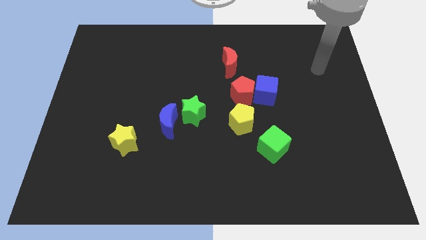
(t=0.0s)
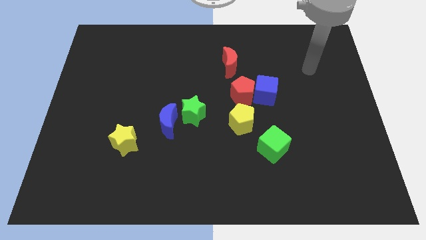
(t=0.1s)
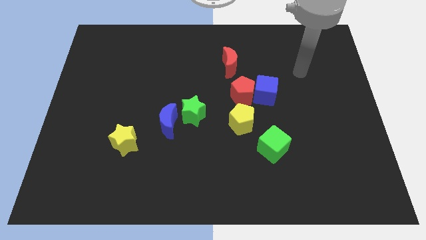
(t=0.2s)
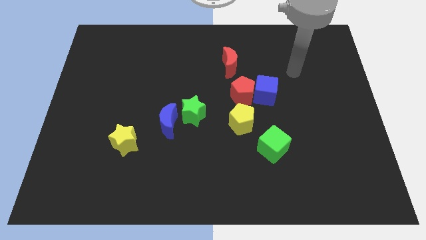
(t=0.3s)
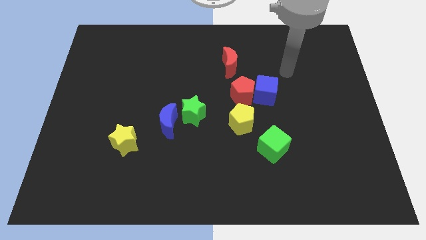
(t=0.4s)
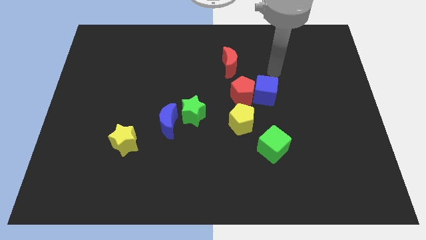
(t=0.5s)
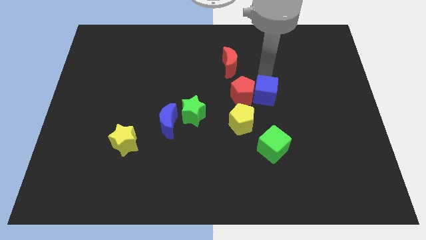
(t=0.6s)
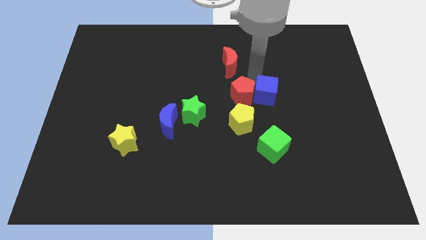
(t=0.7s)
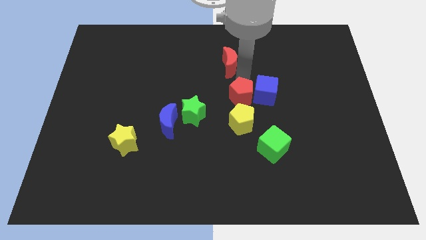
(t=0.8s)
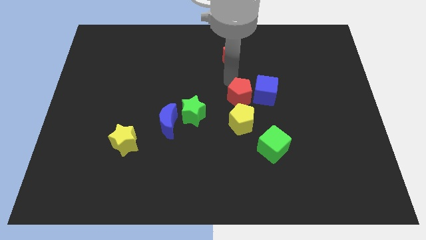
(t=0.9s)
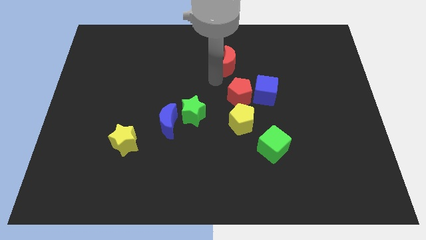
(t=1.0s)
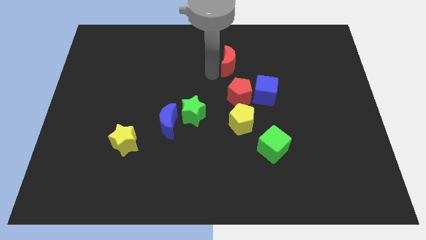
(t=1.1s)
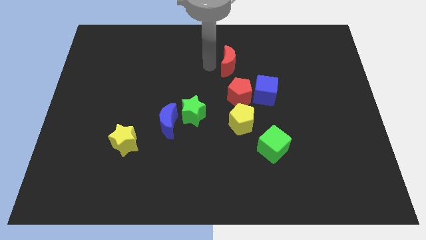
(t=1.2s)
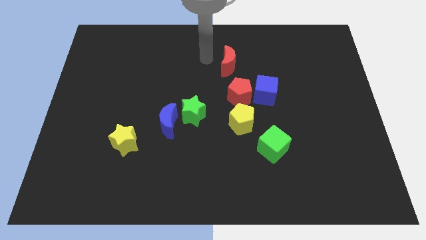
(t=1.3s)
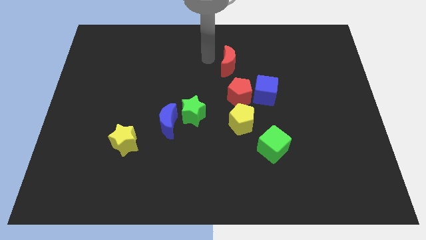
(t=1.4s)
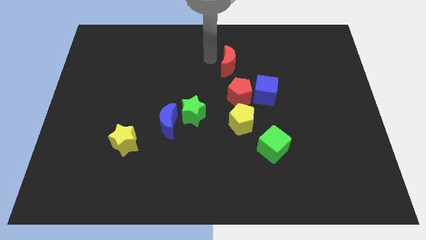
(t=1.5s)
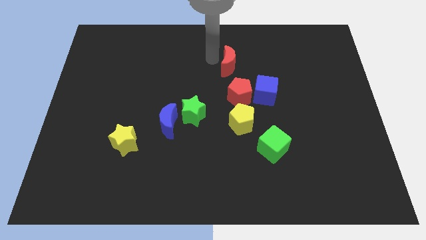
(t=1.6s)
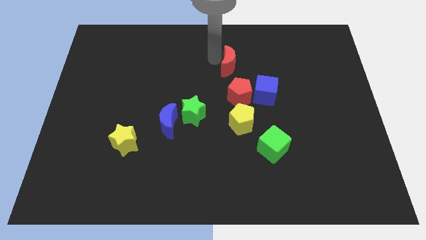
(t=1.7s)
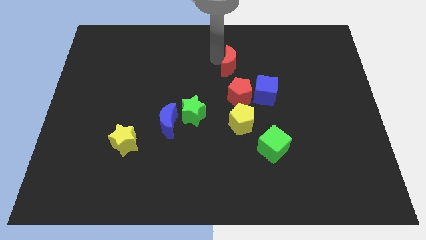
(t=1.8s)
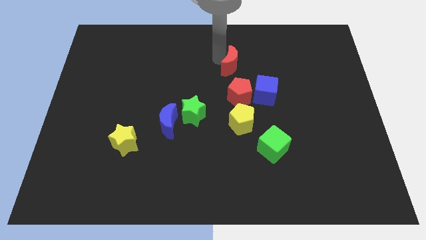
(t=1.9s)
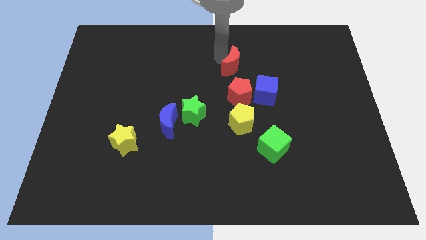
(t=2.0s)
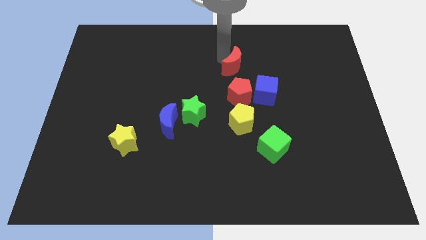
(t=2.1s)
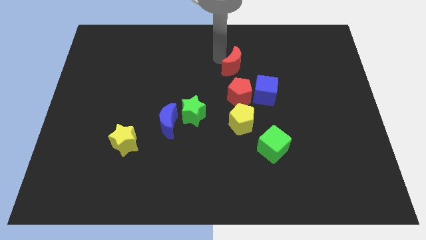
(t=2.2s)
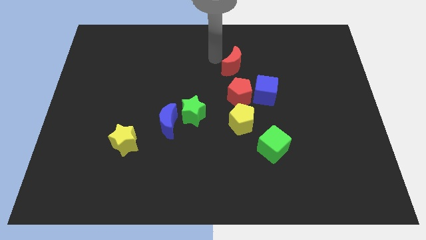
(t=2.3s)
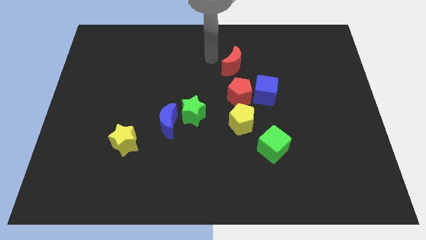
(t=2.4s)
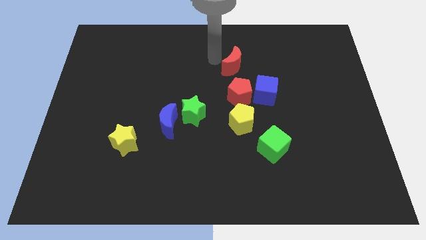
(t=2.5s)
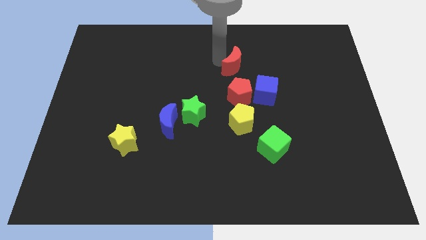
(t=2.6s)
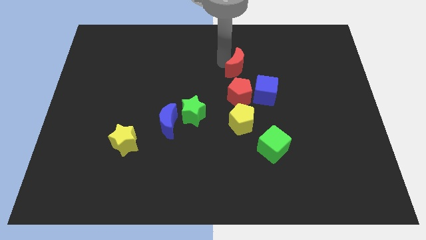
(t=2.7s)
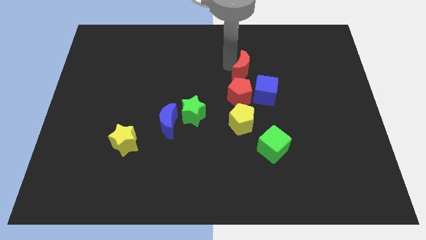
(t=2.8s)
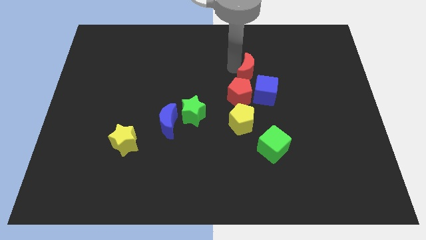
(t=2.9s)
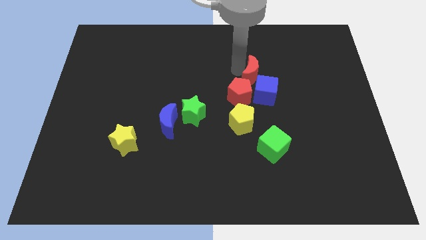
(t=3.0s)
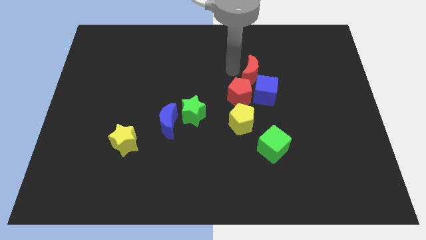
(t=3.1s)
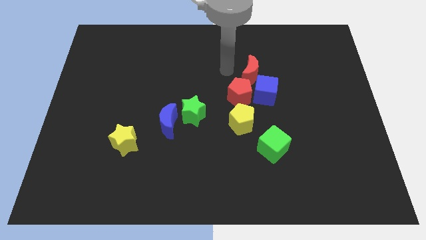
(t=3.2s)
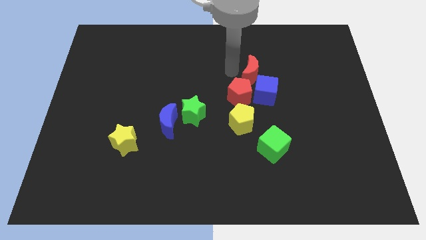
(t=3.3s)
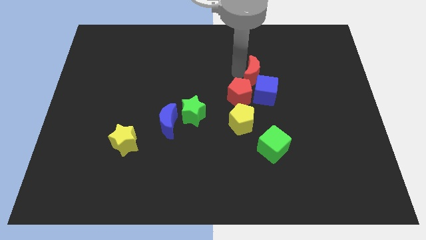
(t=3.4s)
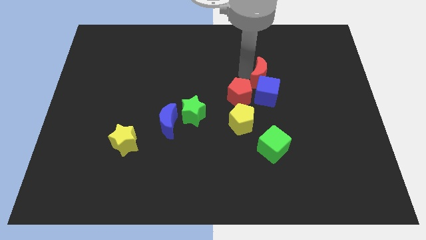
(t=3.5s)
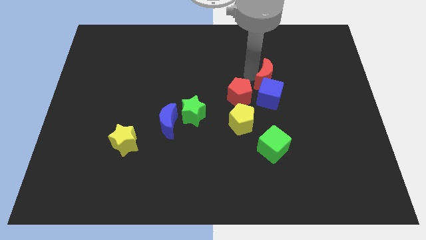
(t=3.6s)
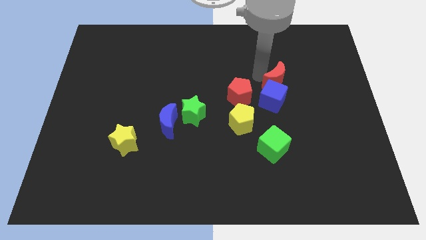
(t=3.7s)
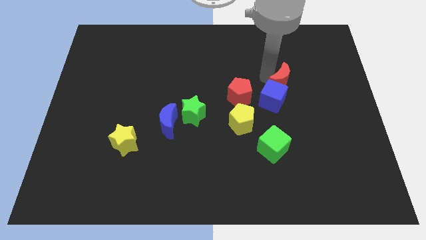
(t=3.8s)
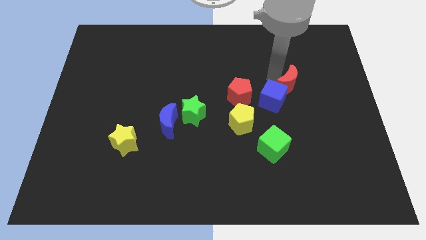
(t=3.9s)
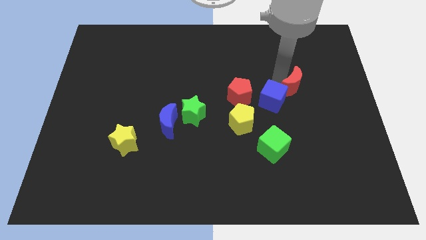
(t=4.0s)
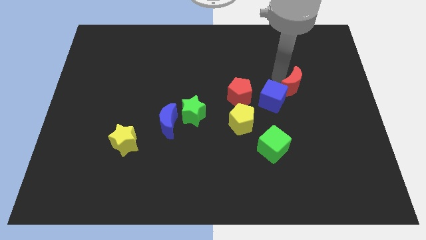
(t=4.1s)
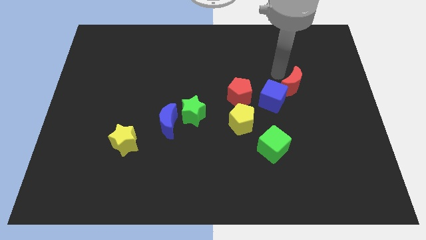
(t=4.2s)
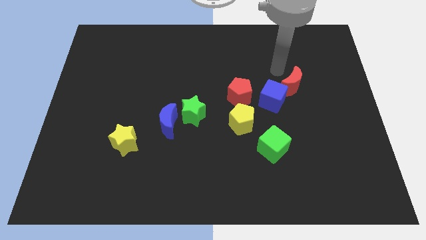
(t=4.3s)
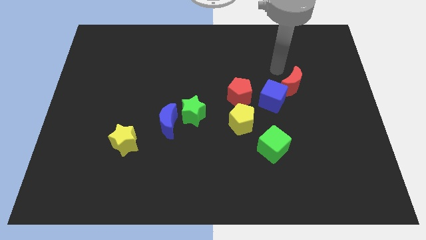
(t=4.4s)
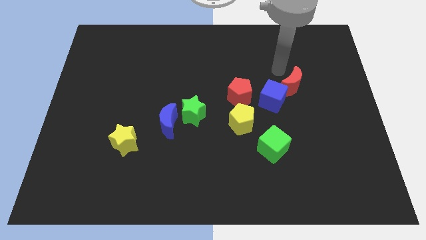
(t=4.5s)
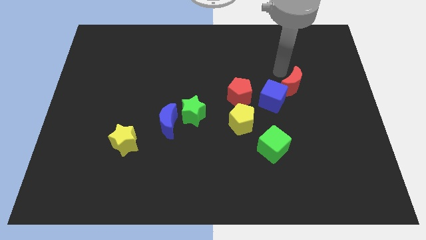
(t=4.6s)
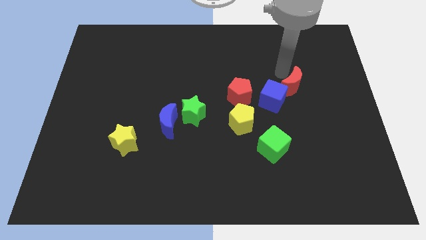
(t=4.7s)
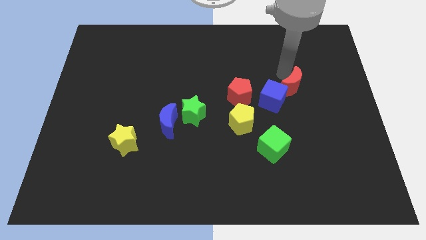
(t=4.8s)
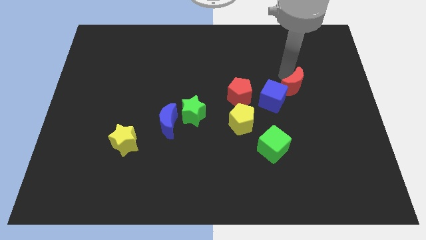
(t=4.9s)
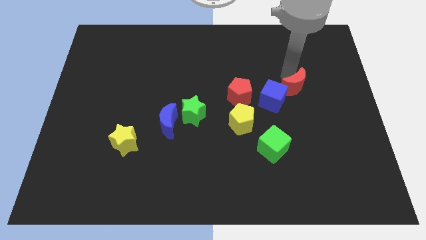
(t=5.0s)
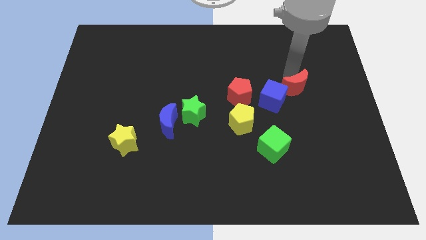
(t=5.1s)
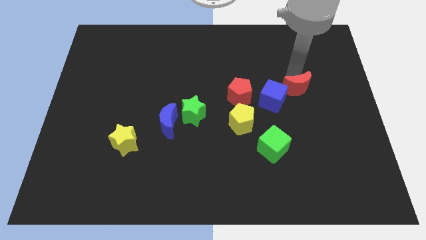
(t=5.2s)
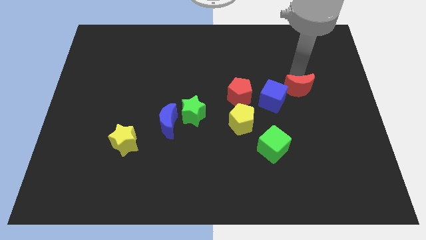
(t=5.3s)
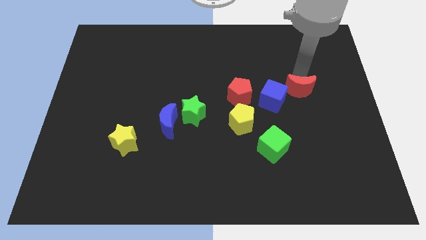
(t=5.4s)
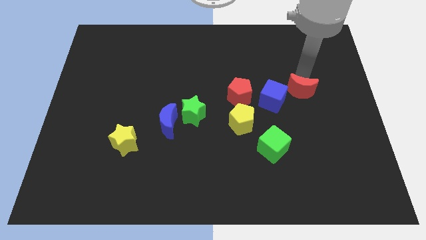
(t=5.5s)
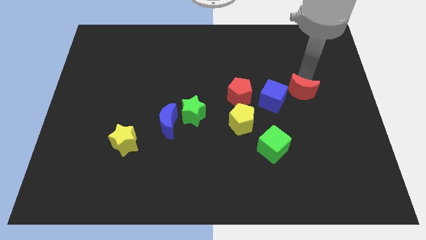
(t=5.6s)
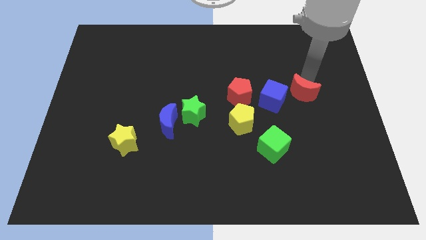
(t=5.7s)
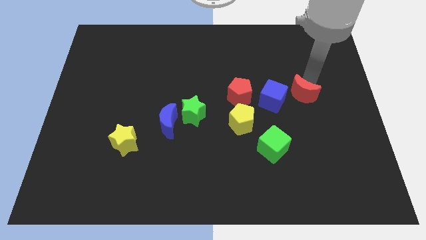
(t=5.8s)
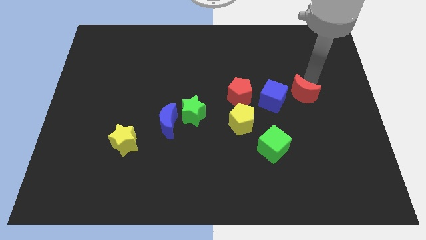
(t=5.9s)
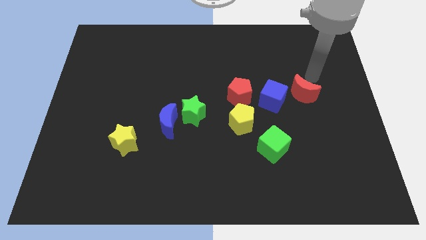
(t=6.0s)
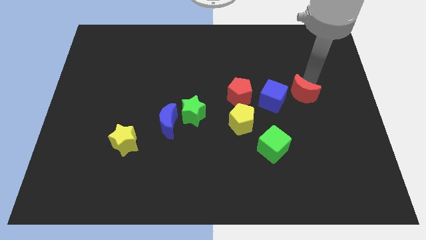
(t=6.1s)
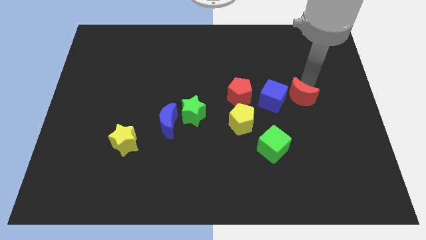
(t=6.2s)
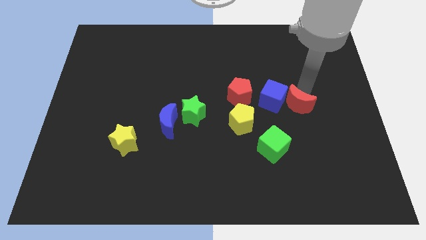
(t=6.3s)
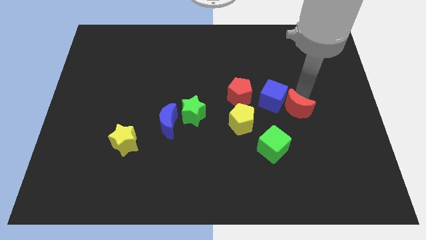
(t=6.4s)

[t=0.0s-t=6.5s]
push the red moon to the right side of the yellow pentagon

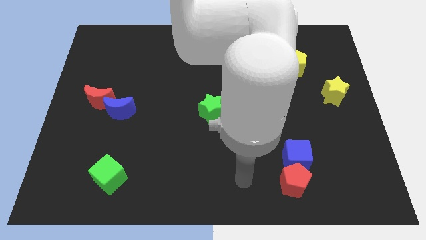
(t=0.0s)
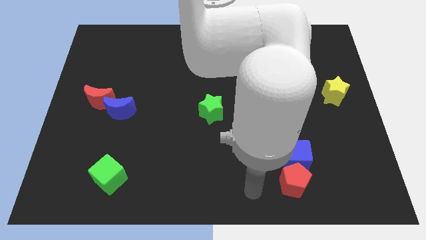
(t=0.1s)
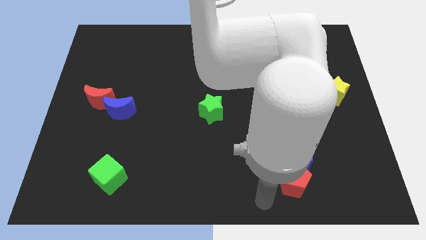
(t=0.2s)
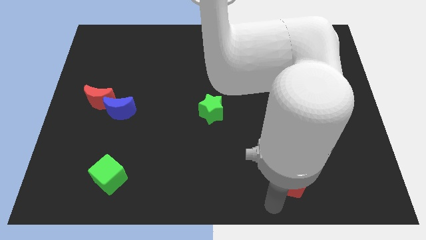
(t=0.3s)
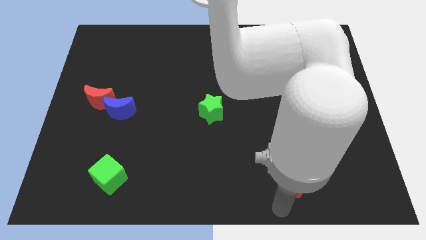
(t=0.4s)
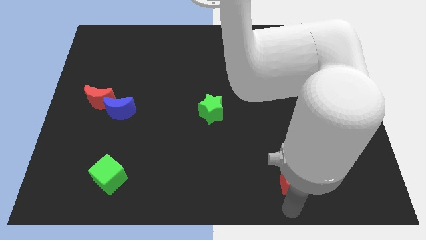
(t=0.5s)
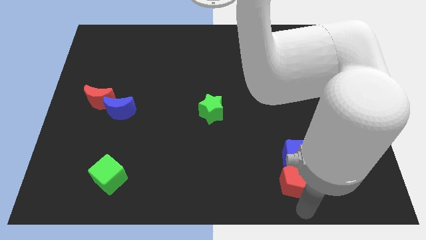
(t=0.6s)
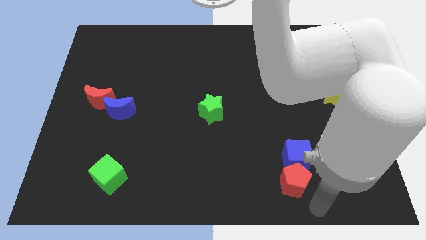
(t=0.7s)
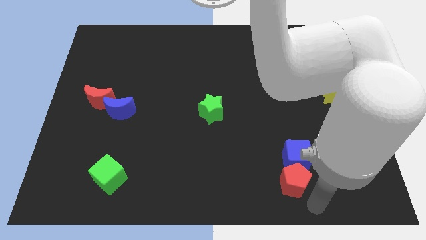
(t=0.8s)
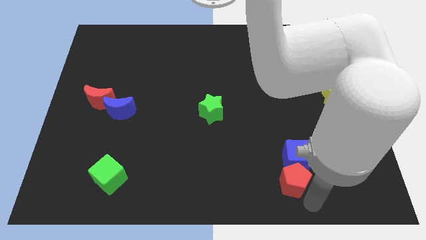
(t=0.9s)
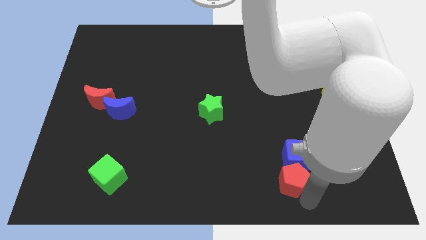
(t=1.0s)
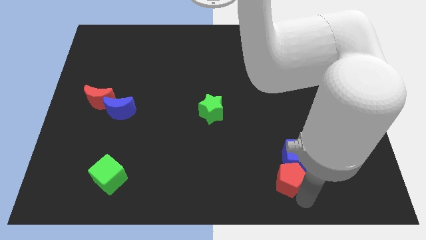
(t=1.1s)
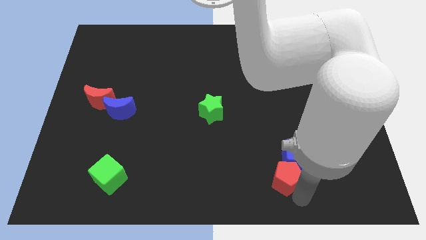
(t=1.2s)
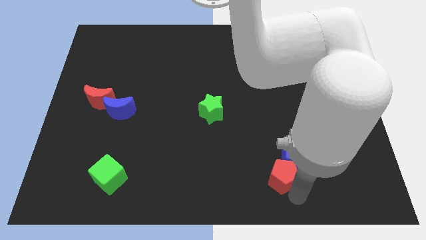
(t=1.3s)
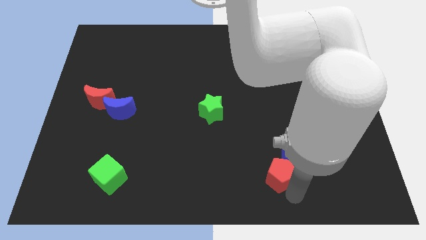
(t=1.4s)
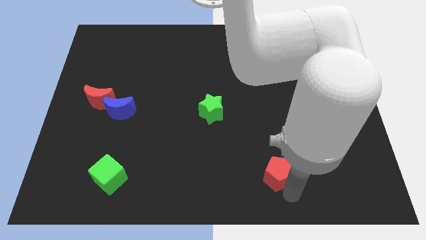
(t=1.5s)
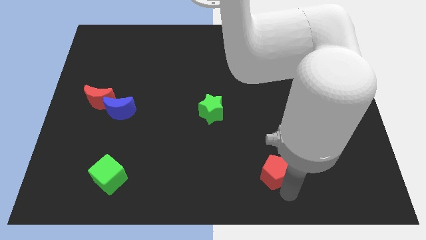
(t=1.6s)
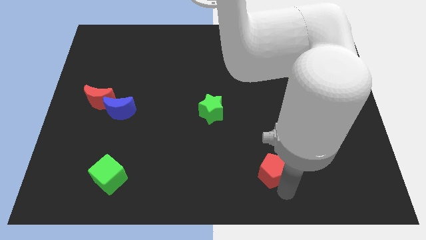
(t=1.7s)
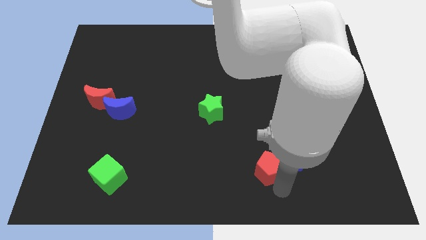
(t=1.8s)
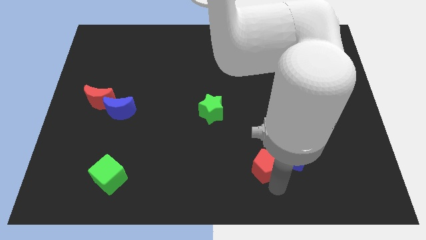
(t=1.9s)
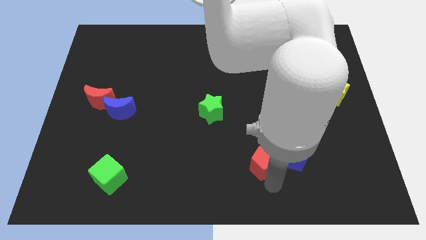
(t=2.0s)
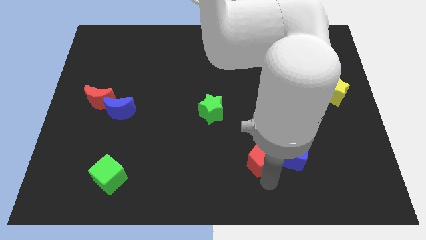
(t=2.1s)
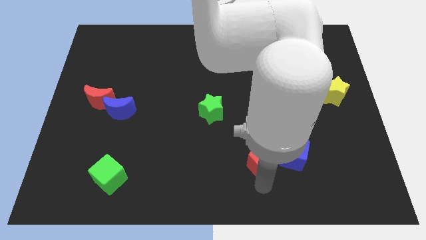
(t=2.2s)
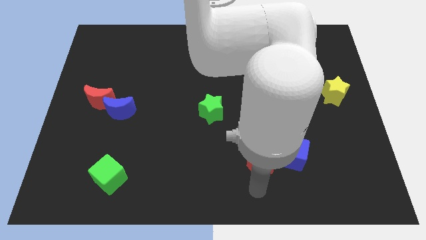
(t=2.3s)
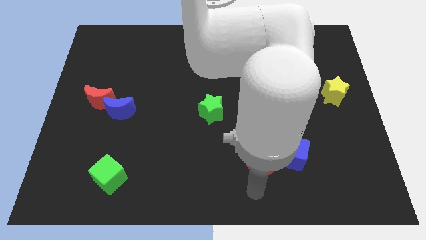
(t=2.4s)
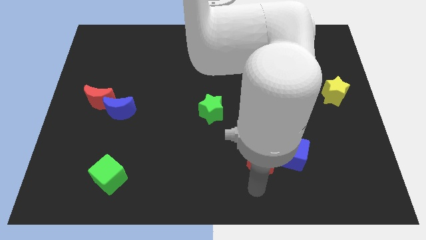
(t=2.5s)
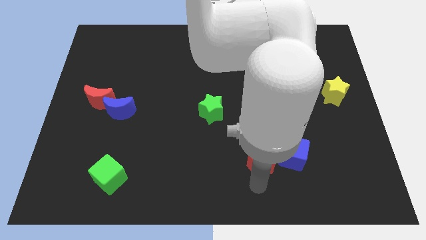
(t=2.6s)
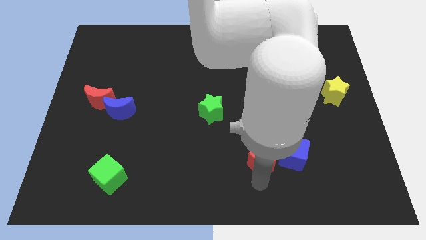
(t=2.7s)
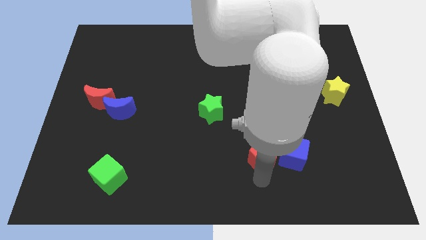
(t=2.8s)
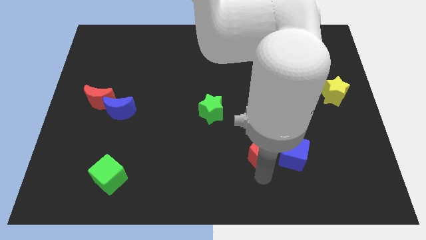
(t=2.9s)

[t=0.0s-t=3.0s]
move the red pentagon to the top left of the blue cube
